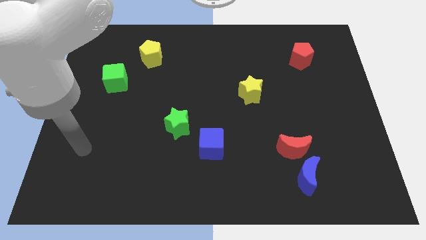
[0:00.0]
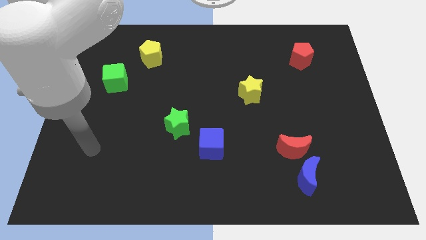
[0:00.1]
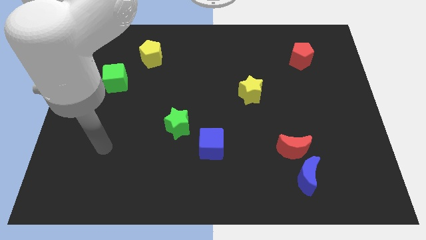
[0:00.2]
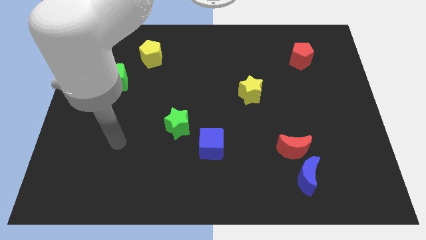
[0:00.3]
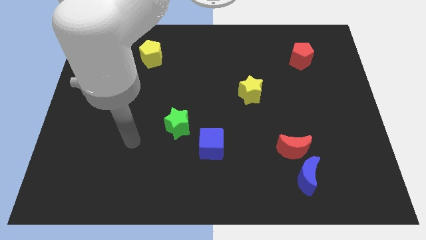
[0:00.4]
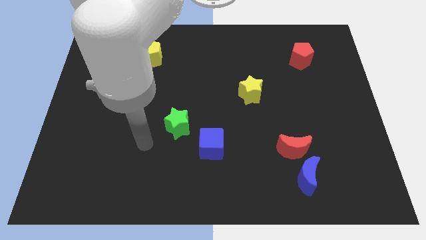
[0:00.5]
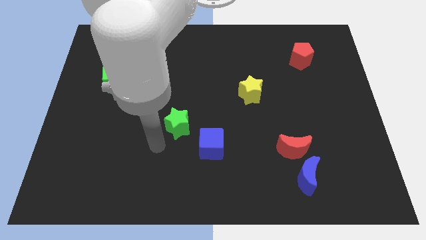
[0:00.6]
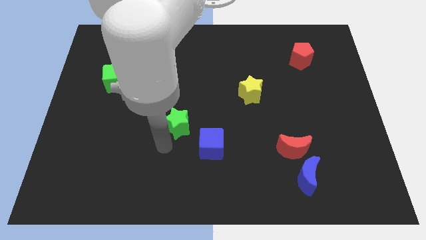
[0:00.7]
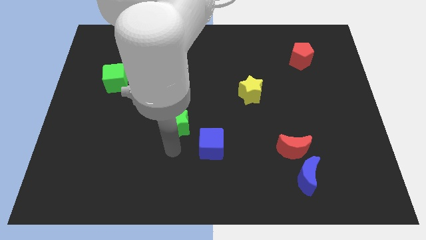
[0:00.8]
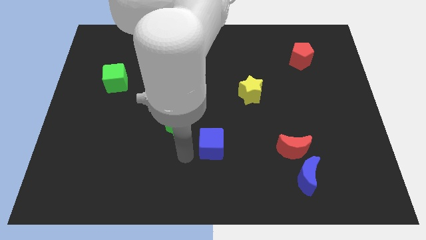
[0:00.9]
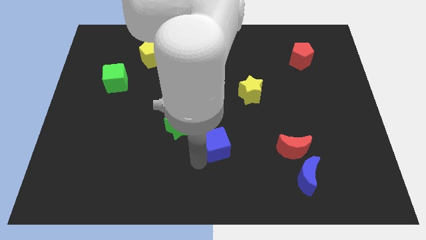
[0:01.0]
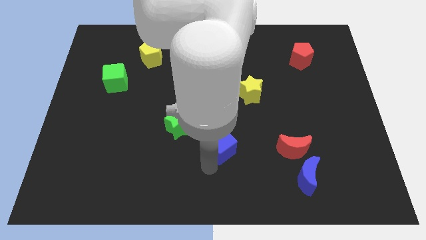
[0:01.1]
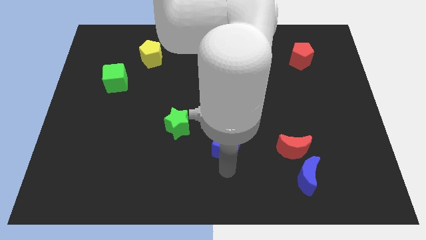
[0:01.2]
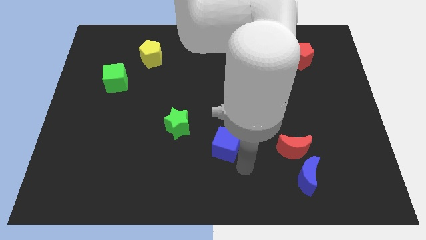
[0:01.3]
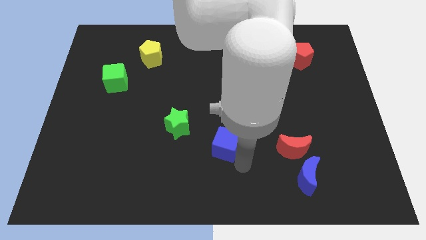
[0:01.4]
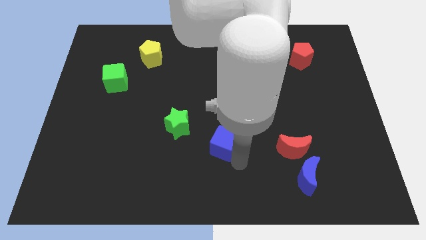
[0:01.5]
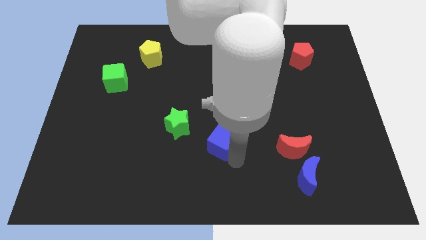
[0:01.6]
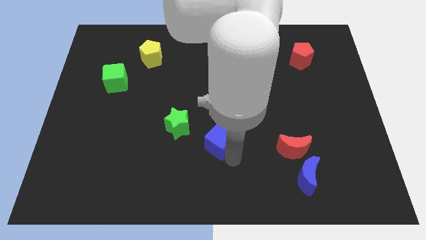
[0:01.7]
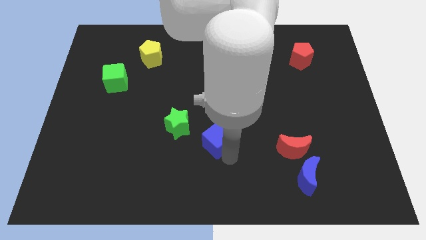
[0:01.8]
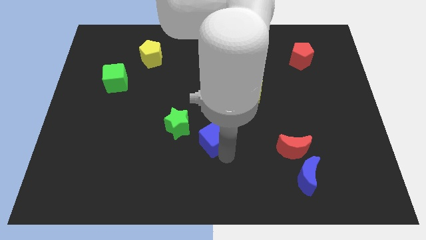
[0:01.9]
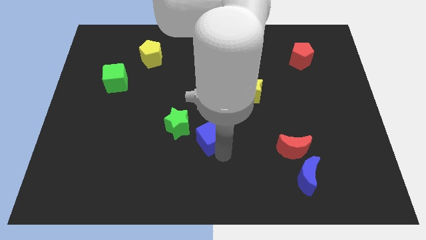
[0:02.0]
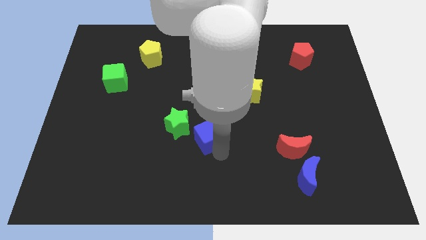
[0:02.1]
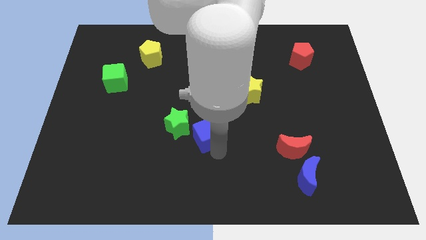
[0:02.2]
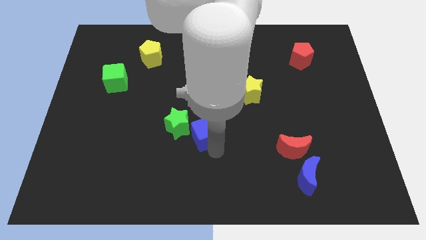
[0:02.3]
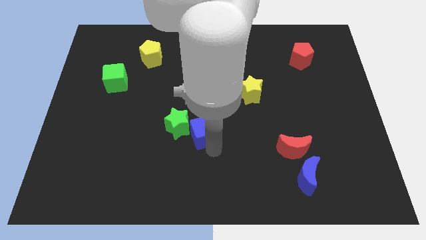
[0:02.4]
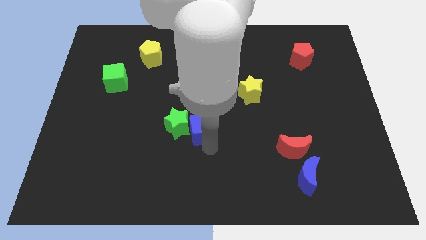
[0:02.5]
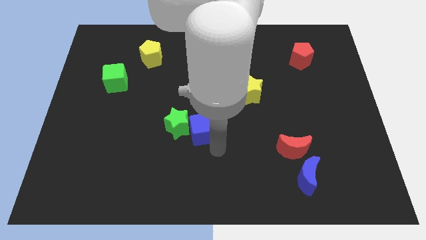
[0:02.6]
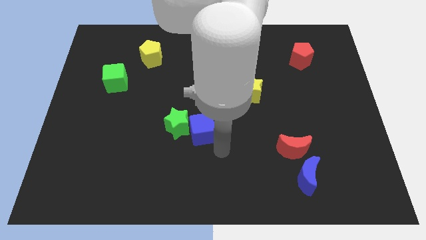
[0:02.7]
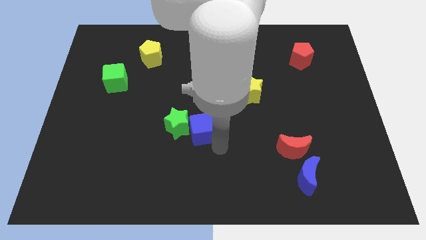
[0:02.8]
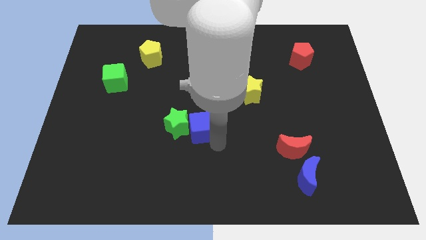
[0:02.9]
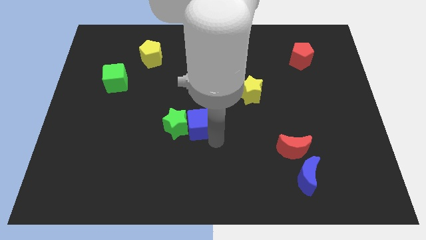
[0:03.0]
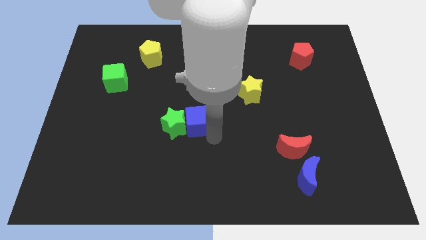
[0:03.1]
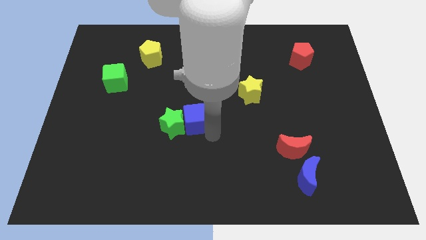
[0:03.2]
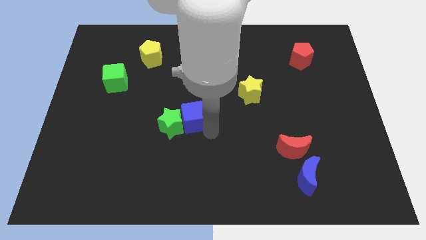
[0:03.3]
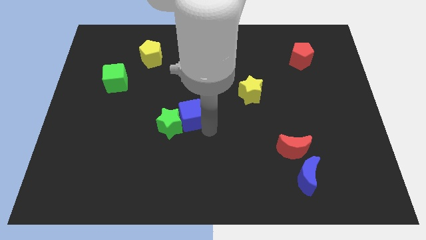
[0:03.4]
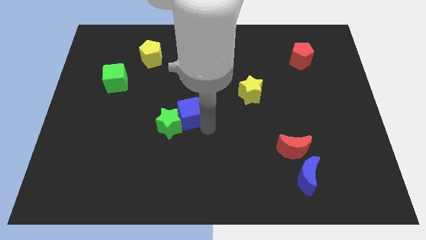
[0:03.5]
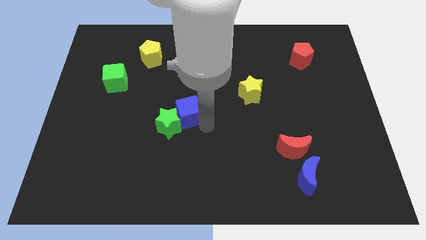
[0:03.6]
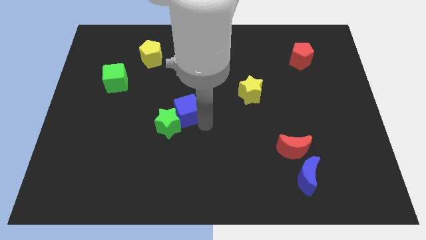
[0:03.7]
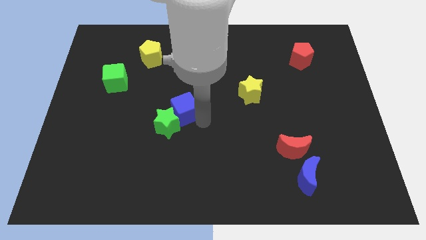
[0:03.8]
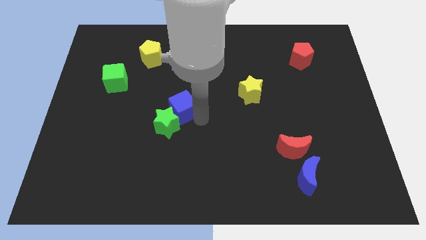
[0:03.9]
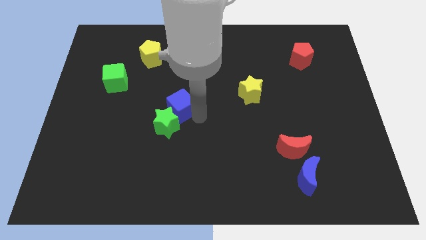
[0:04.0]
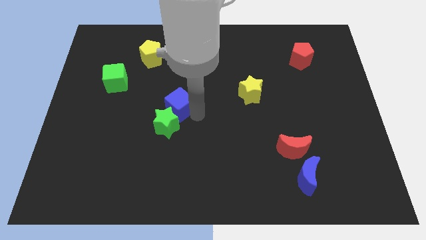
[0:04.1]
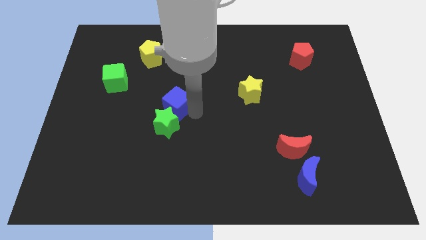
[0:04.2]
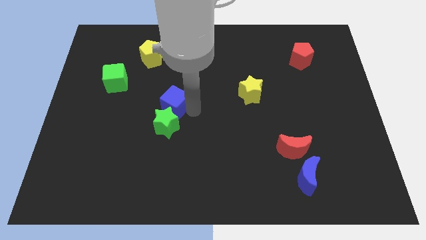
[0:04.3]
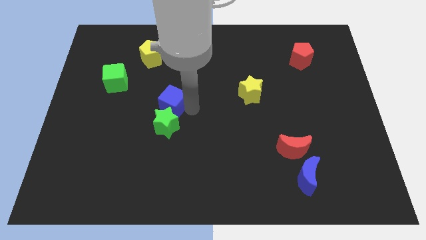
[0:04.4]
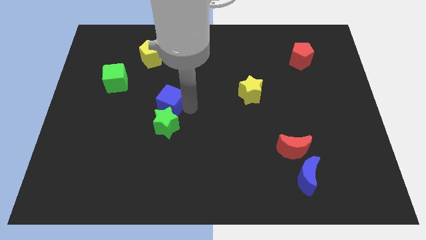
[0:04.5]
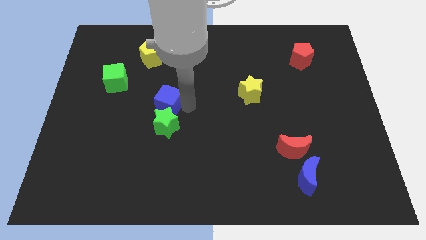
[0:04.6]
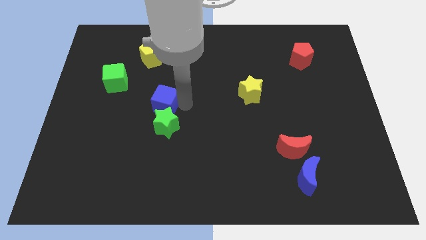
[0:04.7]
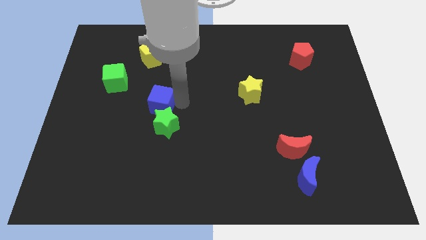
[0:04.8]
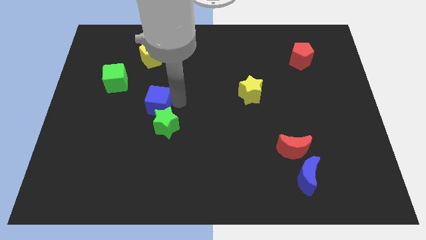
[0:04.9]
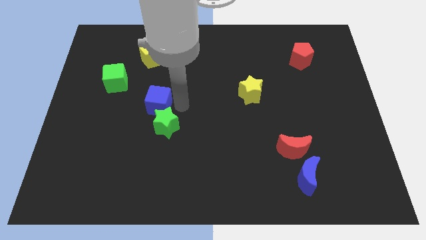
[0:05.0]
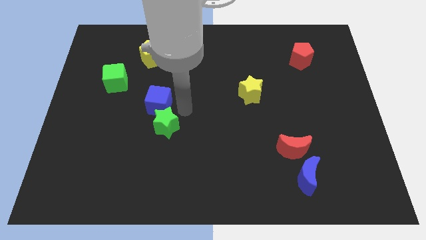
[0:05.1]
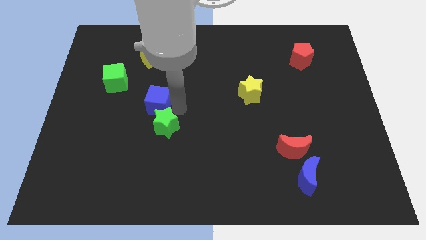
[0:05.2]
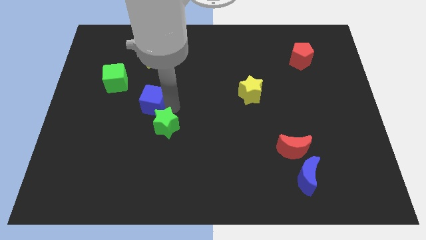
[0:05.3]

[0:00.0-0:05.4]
put the blue cube diagonally down and to the right of the green cube

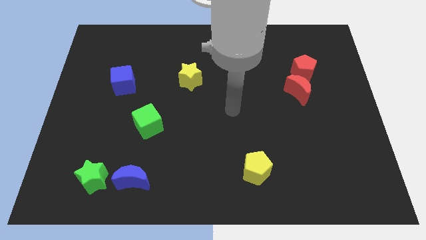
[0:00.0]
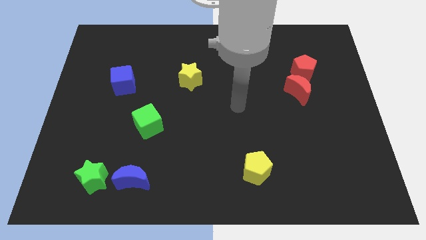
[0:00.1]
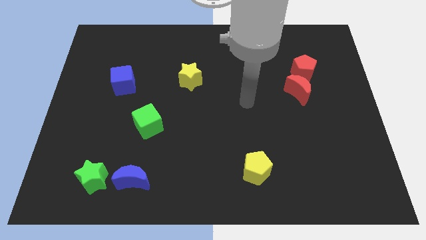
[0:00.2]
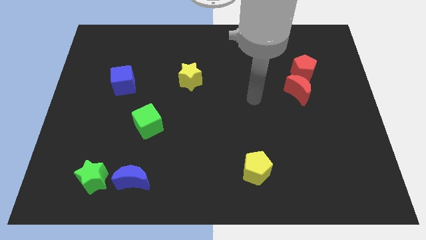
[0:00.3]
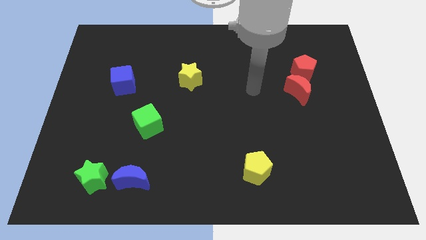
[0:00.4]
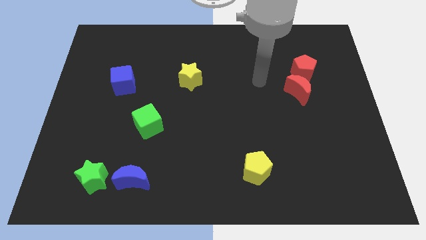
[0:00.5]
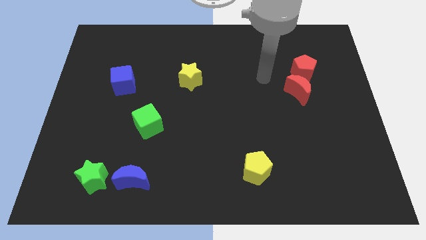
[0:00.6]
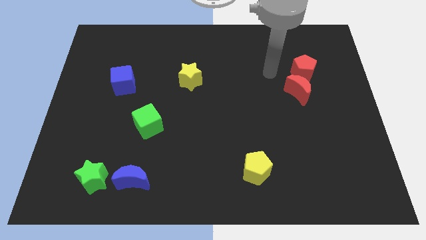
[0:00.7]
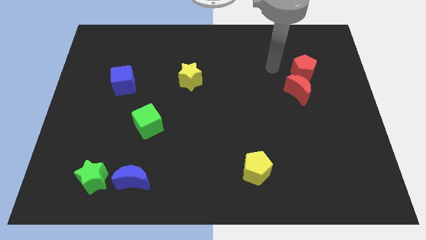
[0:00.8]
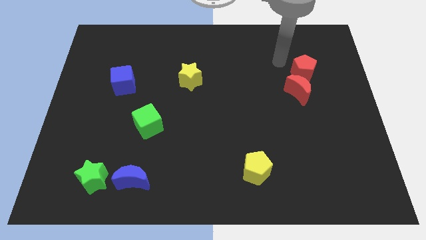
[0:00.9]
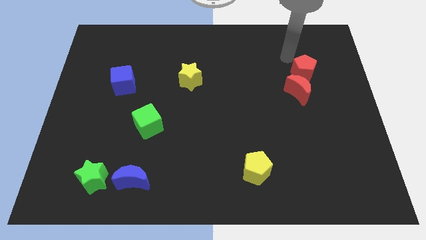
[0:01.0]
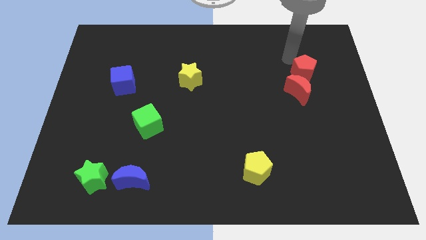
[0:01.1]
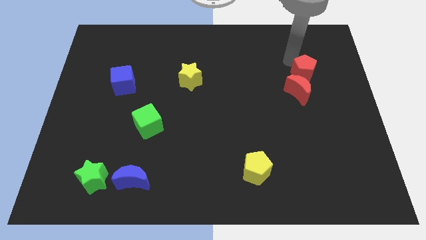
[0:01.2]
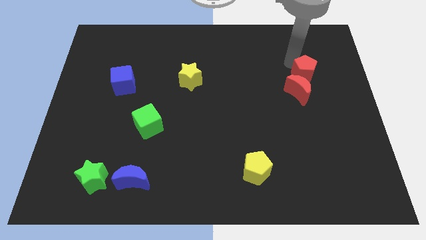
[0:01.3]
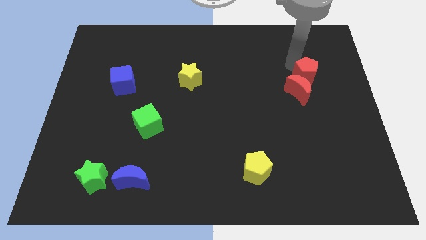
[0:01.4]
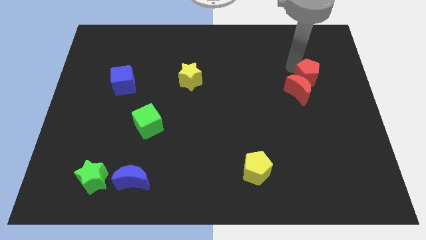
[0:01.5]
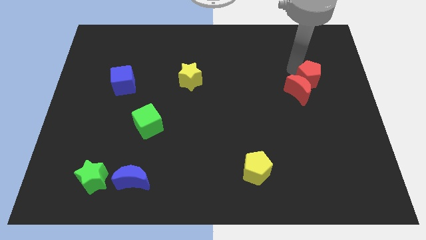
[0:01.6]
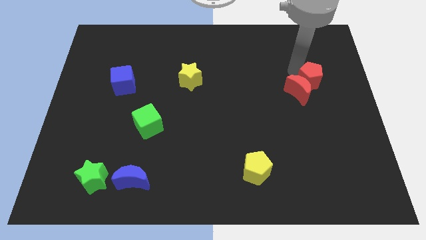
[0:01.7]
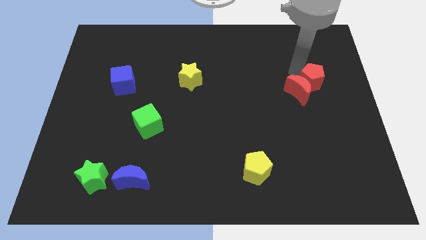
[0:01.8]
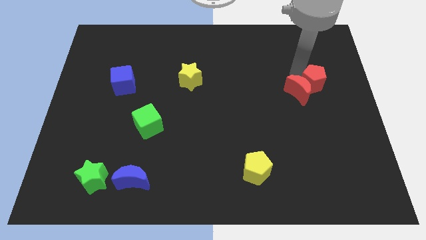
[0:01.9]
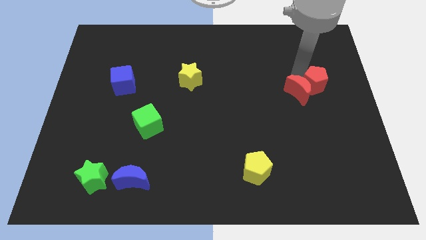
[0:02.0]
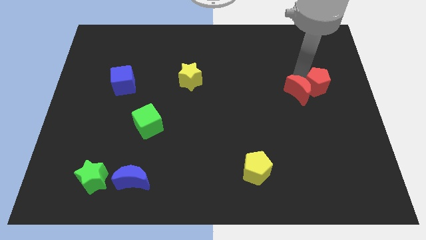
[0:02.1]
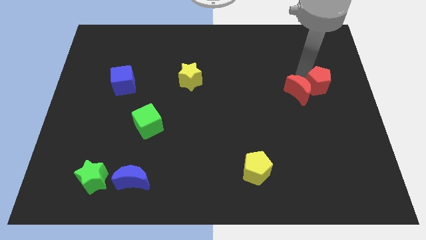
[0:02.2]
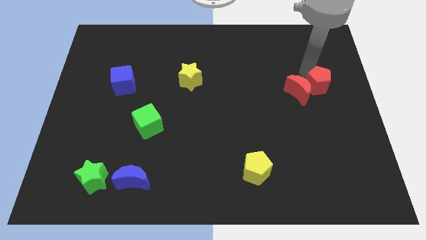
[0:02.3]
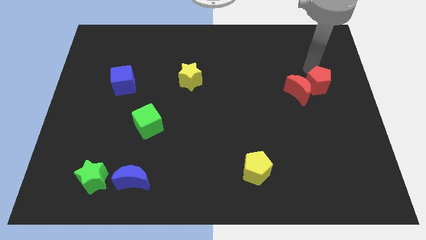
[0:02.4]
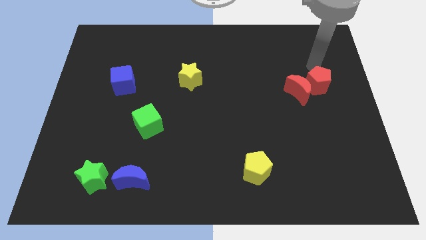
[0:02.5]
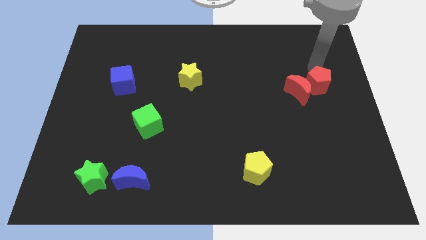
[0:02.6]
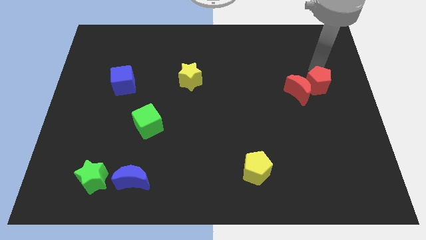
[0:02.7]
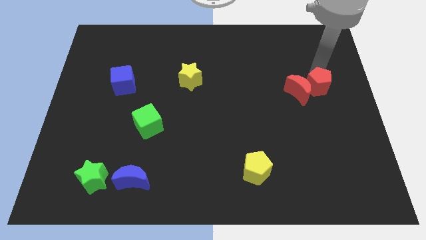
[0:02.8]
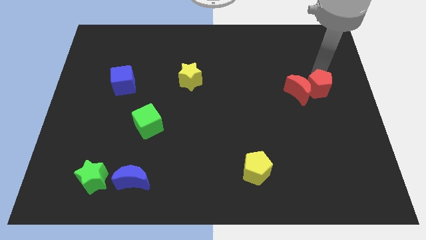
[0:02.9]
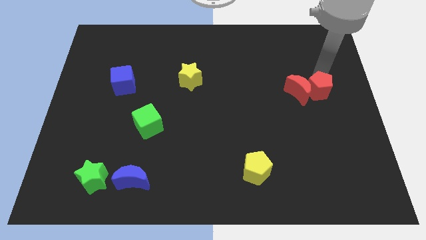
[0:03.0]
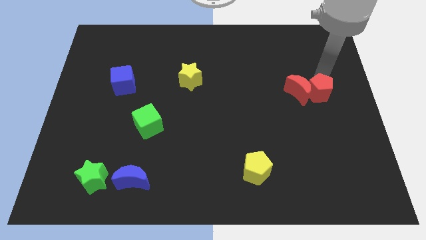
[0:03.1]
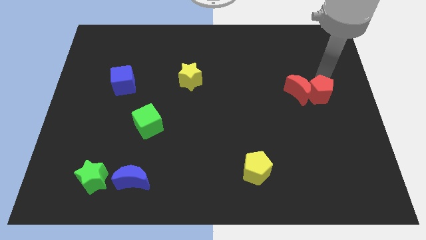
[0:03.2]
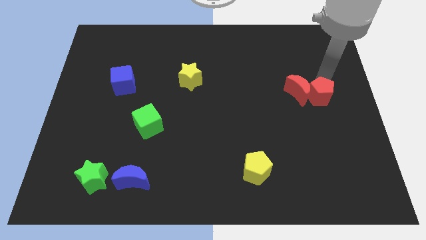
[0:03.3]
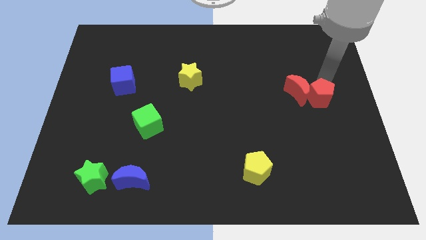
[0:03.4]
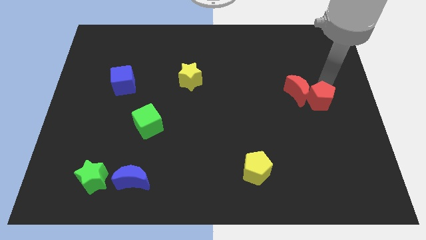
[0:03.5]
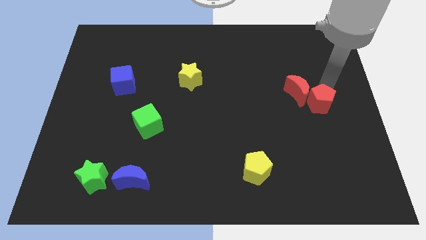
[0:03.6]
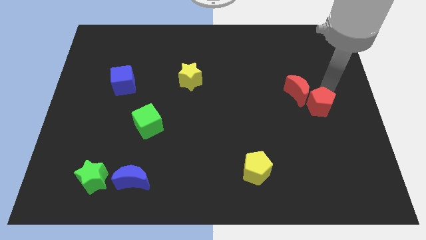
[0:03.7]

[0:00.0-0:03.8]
push the red pentagon to the bottom side of the red moon
